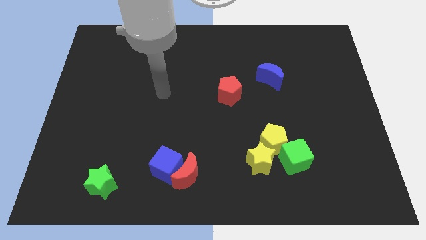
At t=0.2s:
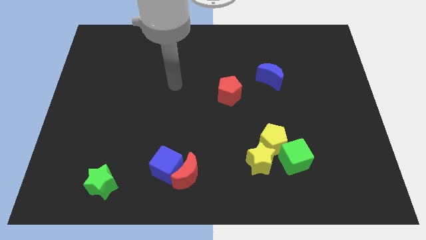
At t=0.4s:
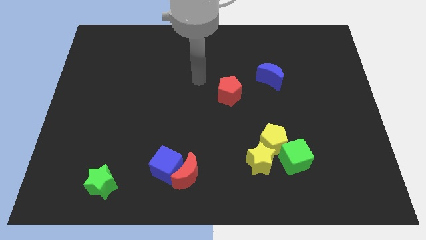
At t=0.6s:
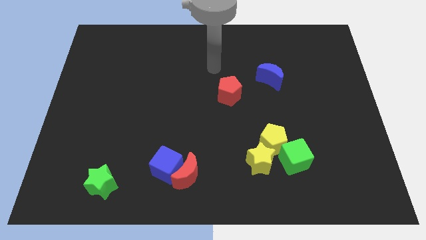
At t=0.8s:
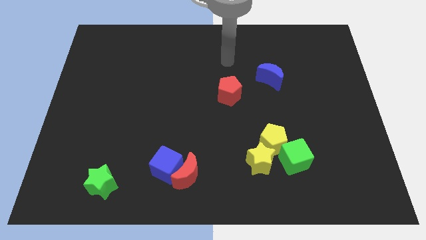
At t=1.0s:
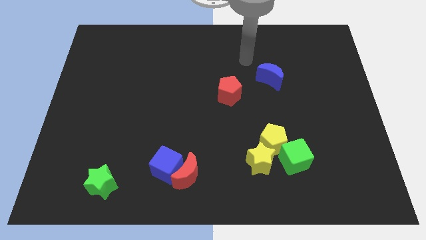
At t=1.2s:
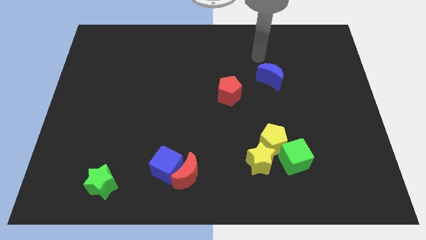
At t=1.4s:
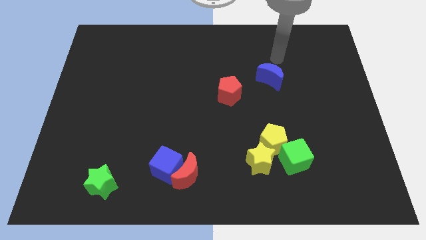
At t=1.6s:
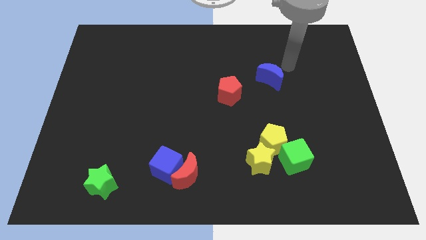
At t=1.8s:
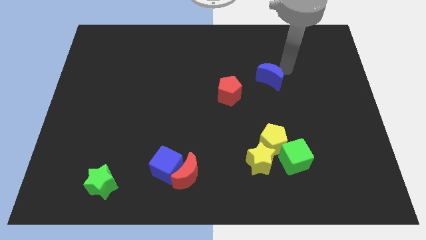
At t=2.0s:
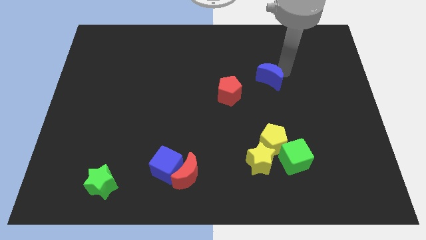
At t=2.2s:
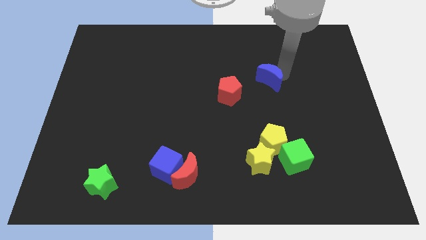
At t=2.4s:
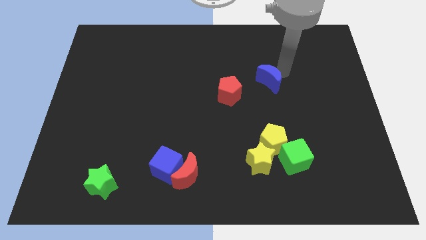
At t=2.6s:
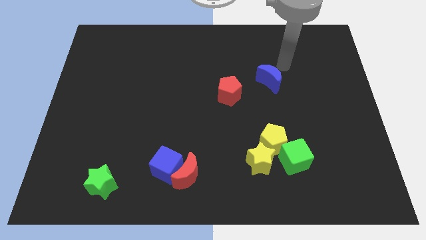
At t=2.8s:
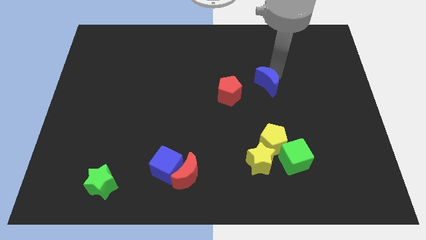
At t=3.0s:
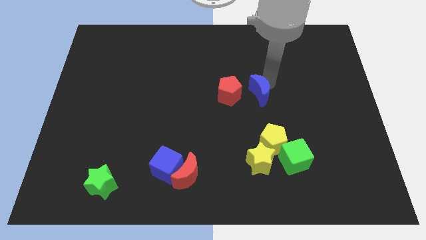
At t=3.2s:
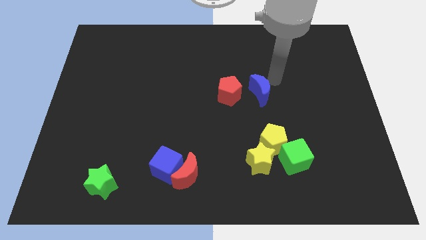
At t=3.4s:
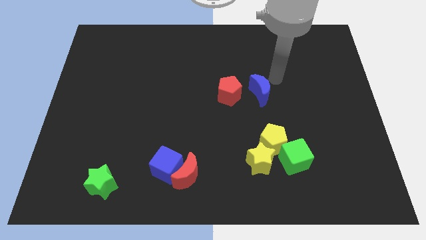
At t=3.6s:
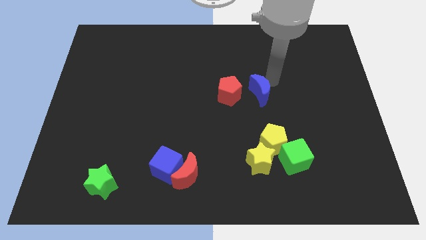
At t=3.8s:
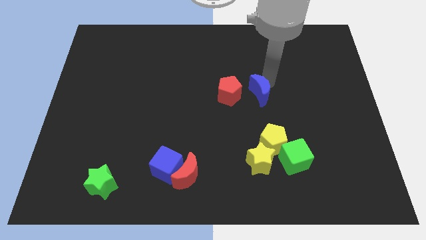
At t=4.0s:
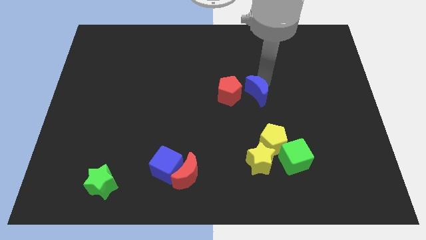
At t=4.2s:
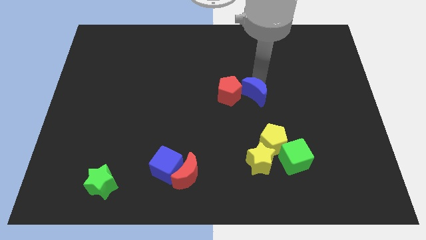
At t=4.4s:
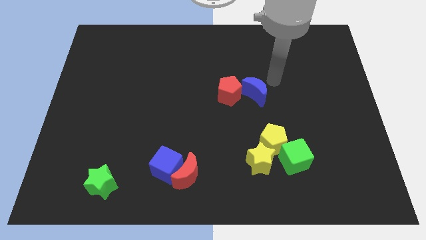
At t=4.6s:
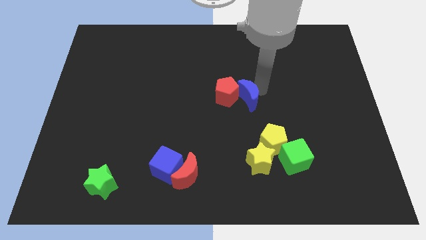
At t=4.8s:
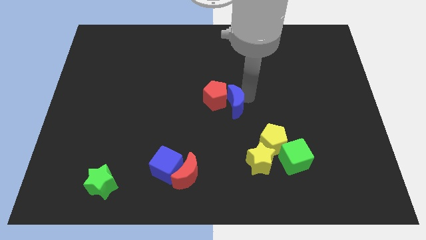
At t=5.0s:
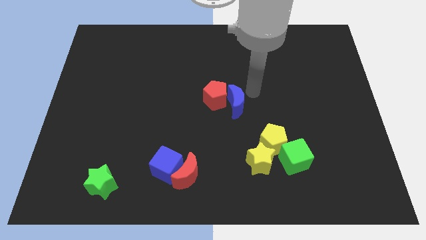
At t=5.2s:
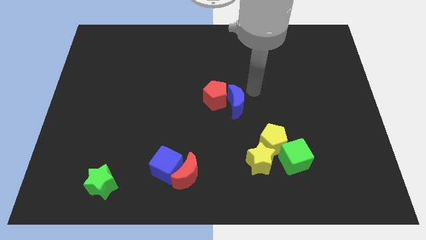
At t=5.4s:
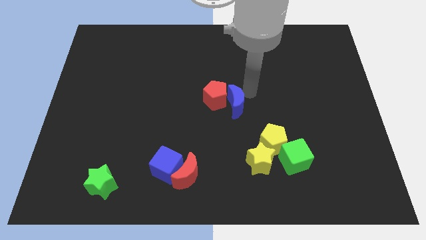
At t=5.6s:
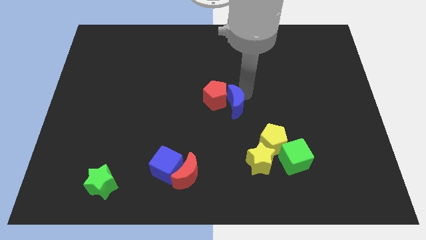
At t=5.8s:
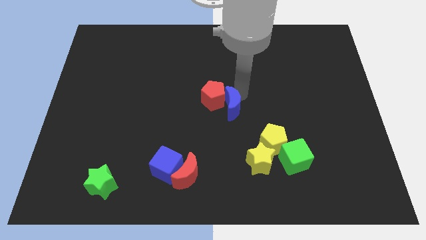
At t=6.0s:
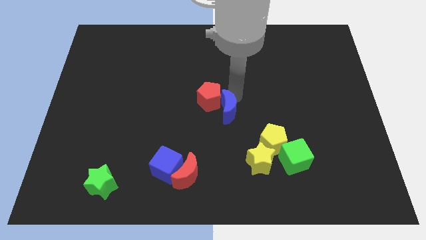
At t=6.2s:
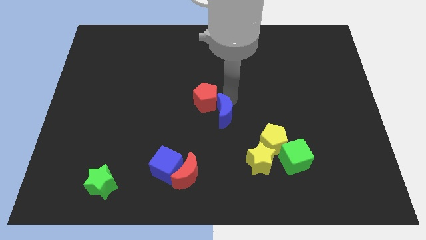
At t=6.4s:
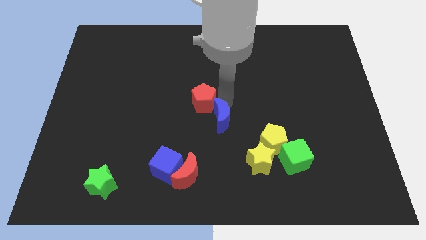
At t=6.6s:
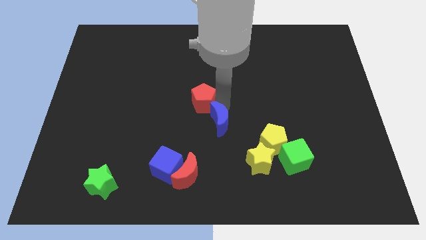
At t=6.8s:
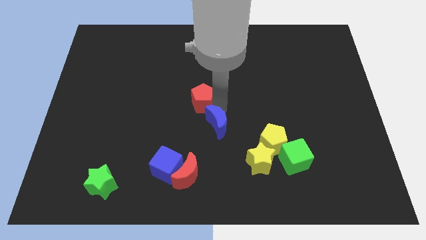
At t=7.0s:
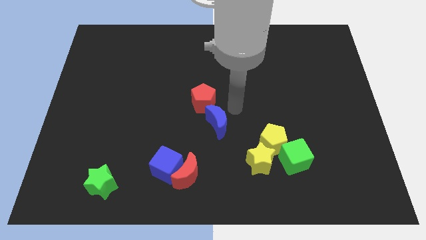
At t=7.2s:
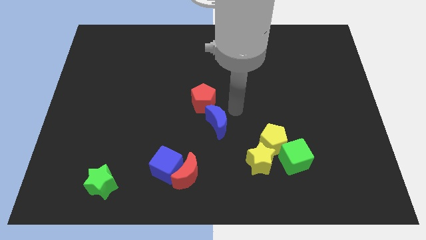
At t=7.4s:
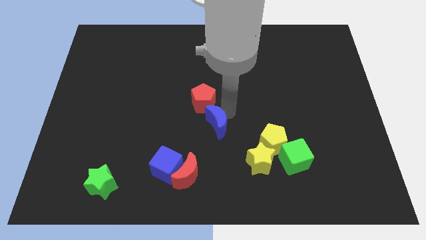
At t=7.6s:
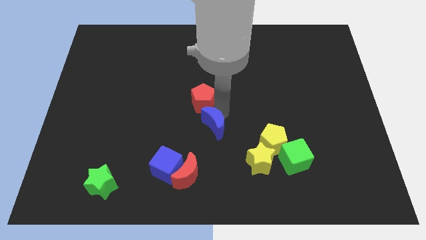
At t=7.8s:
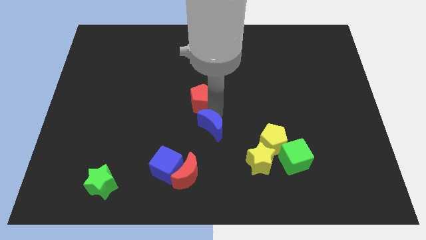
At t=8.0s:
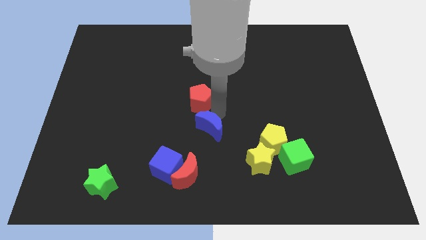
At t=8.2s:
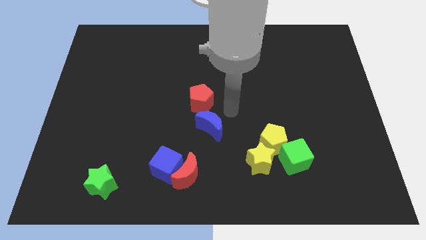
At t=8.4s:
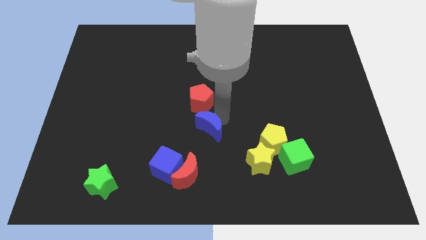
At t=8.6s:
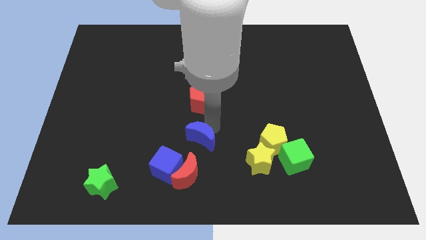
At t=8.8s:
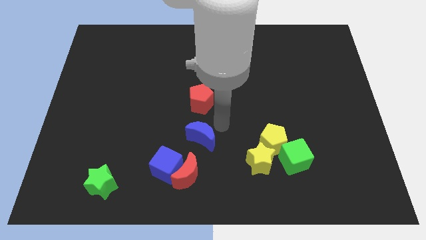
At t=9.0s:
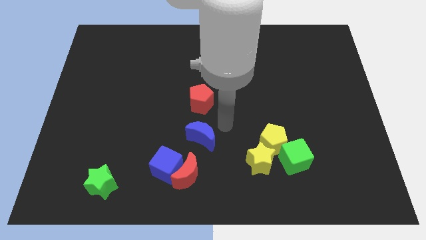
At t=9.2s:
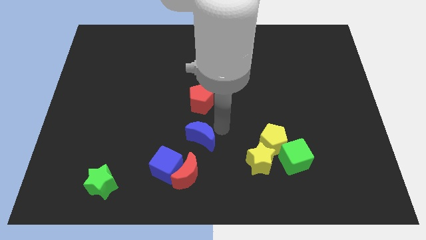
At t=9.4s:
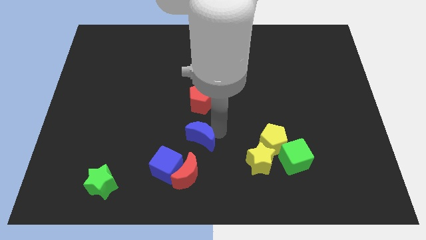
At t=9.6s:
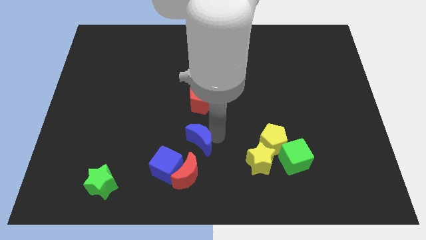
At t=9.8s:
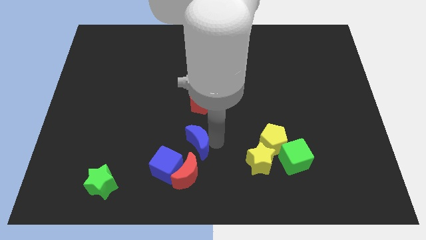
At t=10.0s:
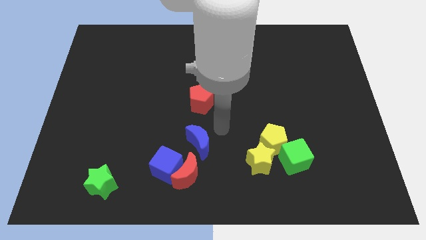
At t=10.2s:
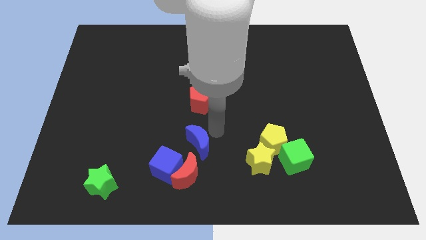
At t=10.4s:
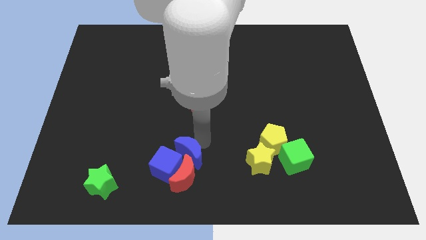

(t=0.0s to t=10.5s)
slide the blue moon close to the blue cube

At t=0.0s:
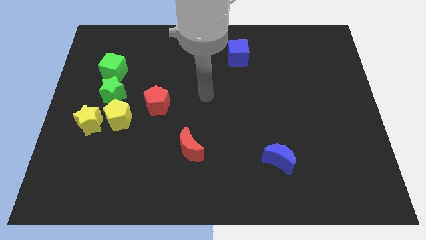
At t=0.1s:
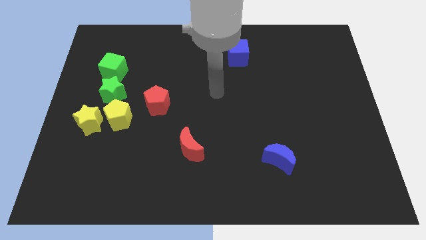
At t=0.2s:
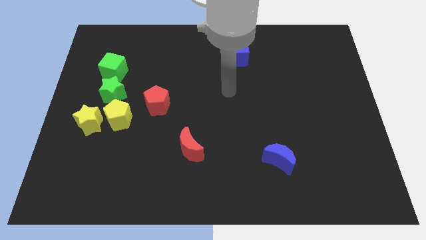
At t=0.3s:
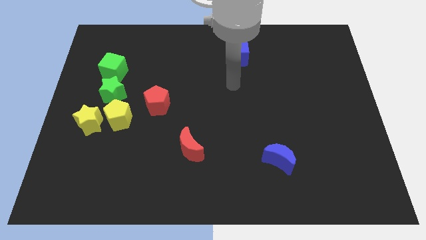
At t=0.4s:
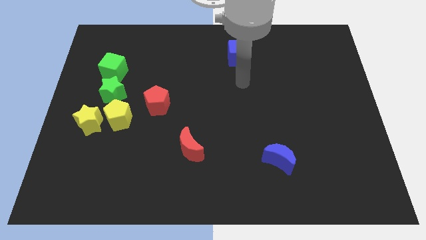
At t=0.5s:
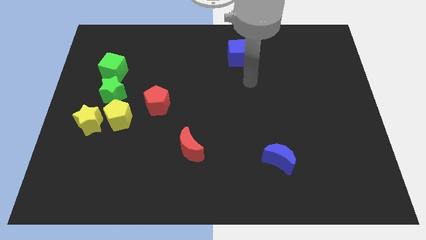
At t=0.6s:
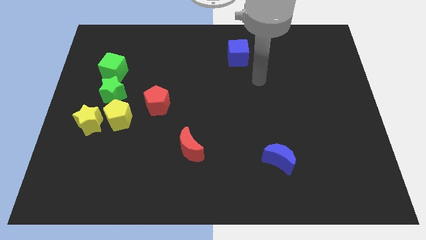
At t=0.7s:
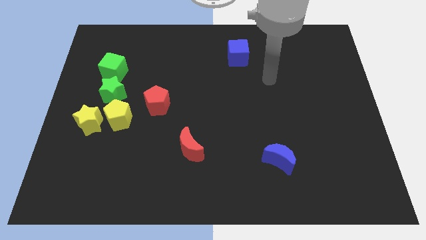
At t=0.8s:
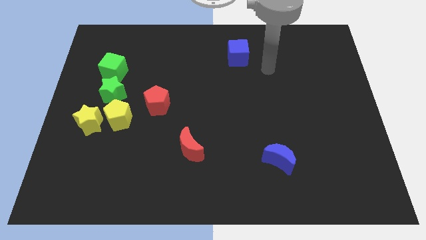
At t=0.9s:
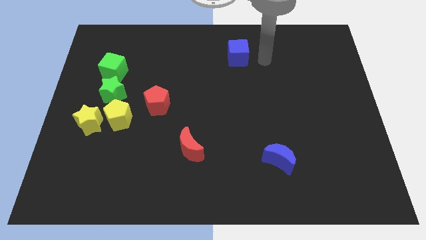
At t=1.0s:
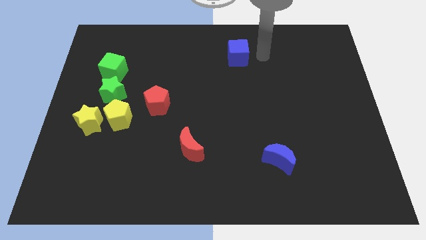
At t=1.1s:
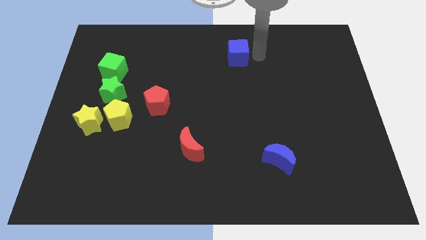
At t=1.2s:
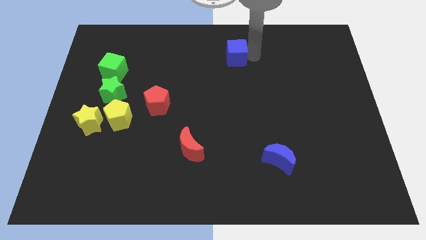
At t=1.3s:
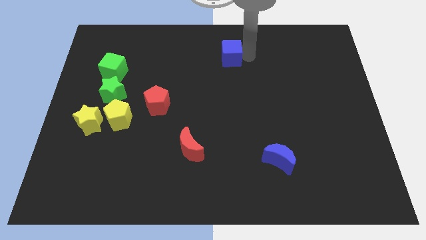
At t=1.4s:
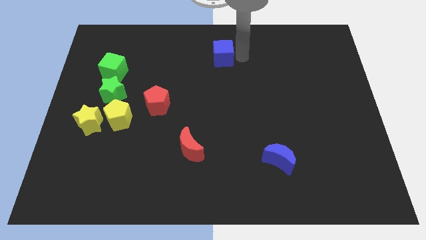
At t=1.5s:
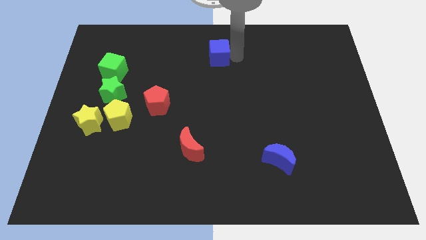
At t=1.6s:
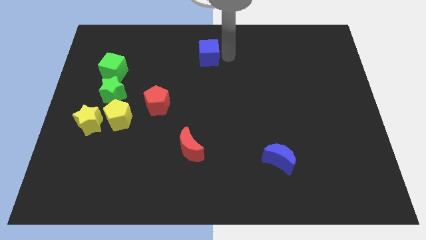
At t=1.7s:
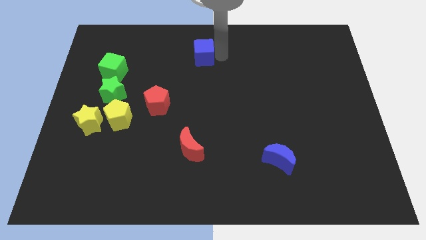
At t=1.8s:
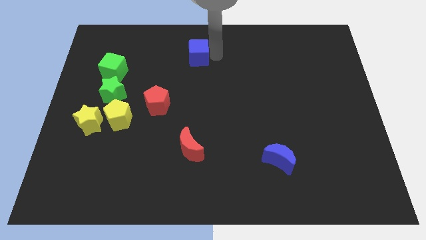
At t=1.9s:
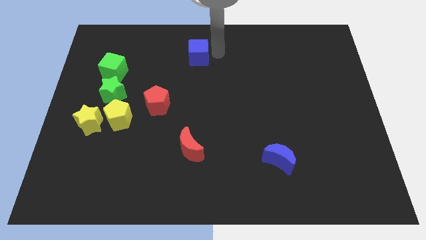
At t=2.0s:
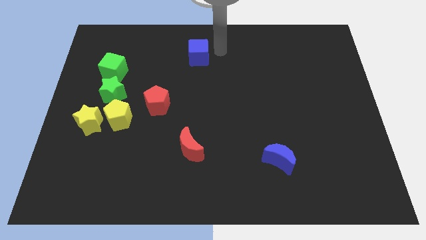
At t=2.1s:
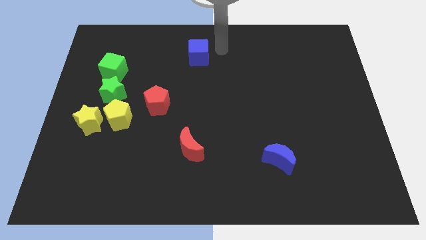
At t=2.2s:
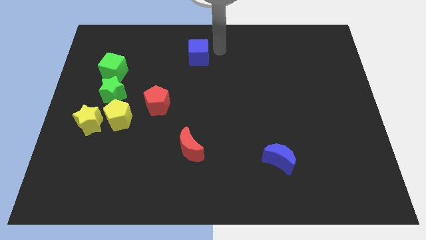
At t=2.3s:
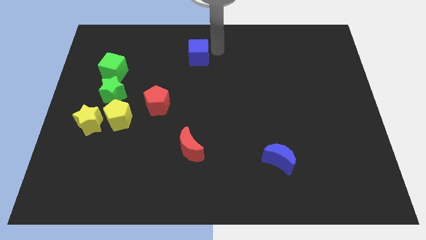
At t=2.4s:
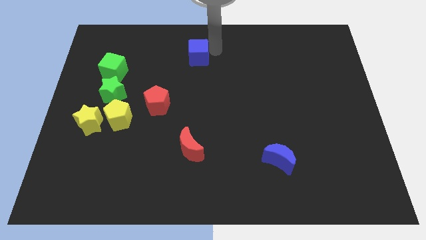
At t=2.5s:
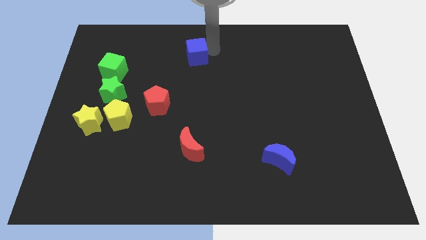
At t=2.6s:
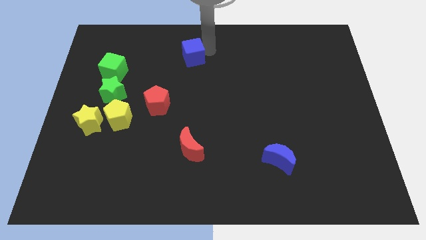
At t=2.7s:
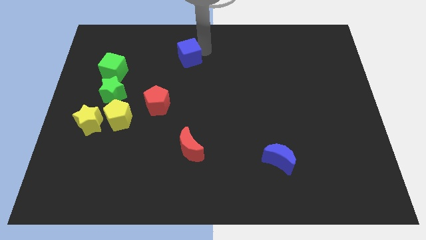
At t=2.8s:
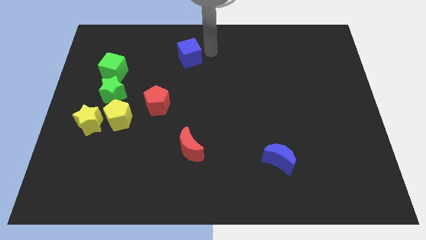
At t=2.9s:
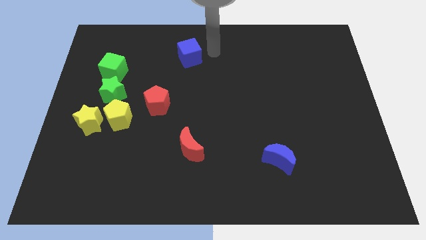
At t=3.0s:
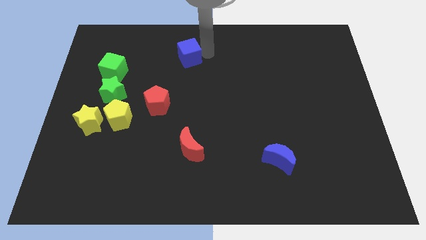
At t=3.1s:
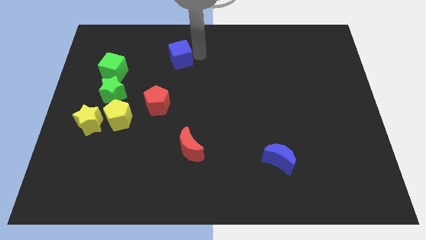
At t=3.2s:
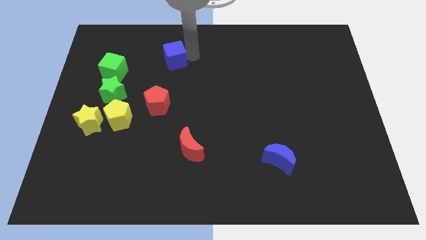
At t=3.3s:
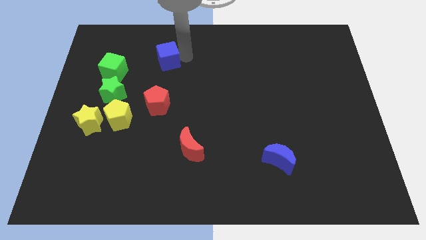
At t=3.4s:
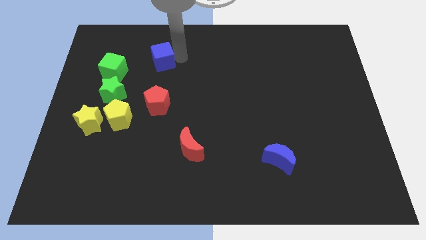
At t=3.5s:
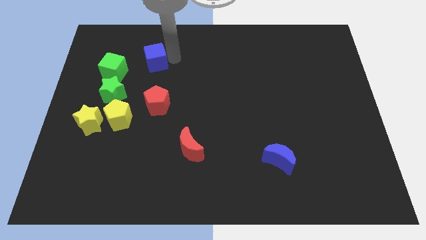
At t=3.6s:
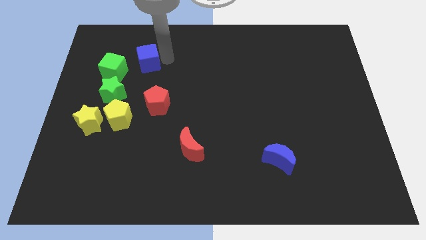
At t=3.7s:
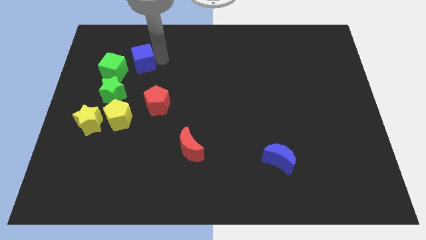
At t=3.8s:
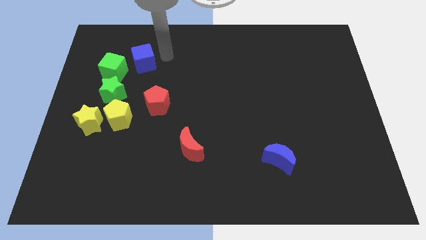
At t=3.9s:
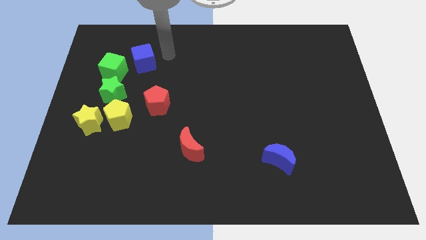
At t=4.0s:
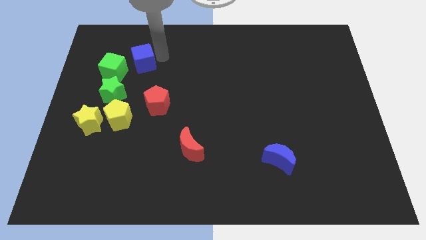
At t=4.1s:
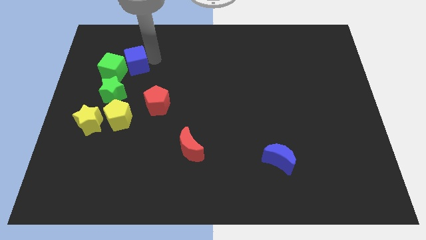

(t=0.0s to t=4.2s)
slide the blue cube towards the green cube
